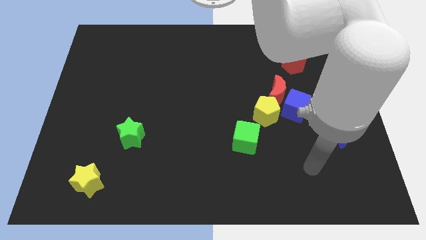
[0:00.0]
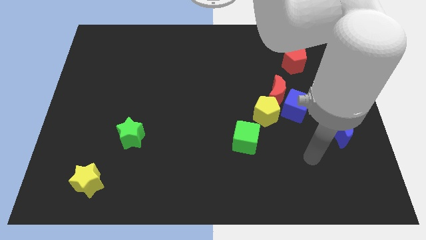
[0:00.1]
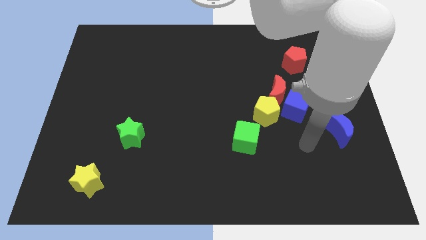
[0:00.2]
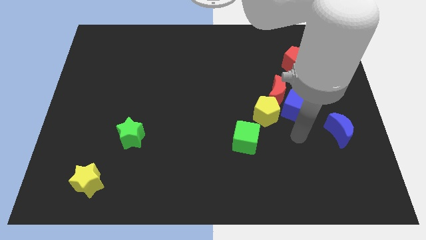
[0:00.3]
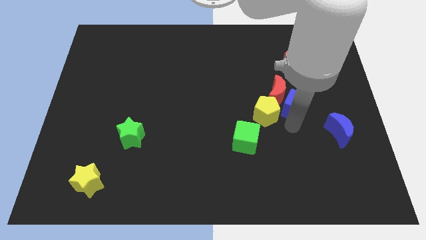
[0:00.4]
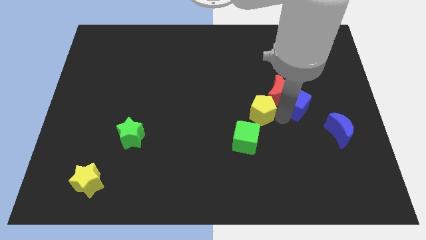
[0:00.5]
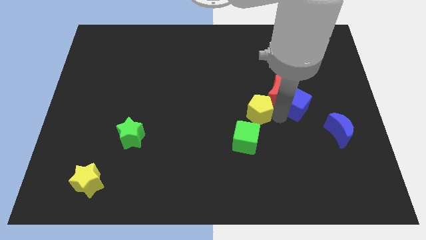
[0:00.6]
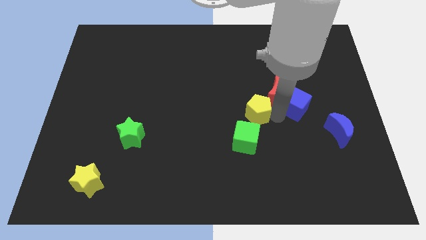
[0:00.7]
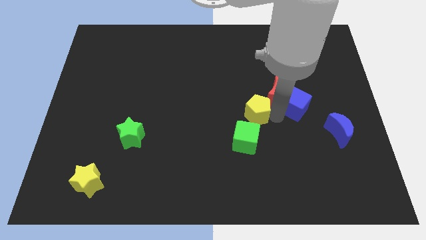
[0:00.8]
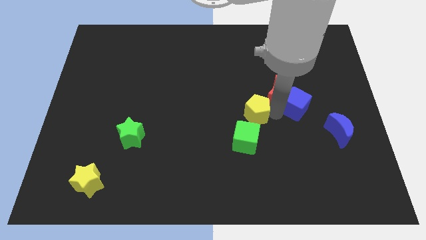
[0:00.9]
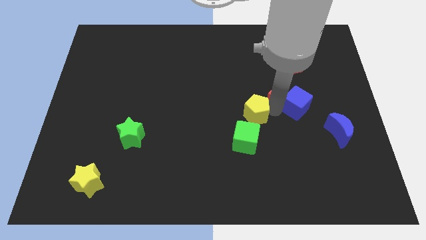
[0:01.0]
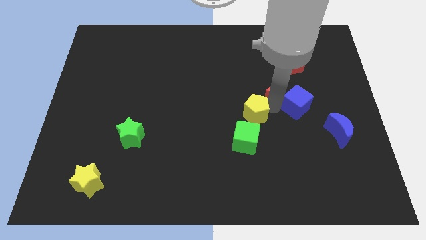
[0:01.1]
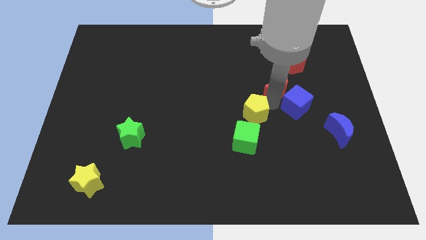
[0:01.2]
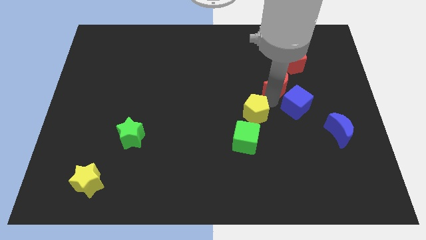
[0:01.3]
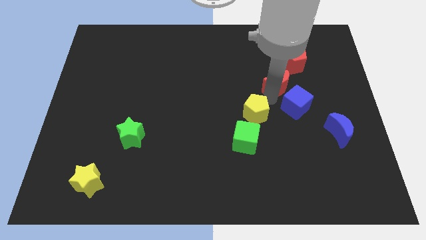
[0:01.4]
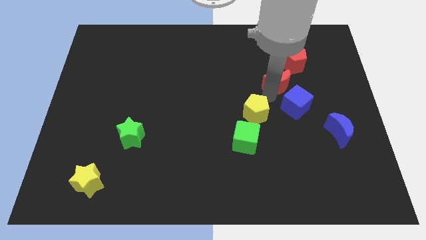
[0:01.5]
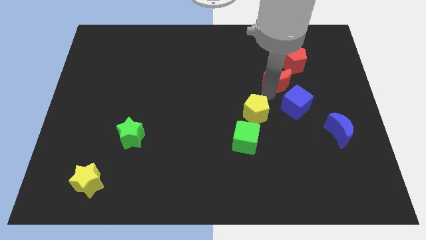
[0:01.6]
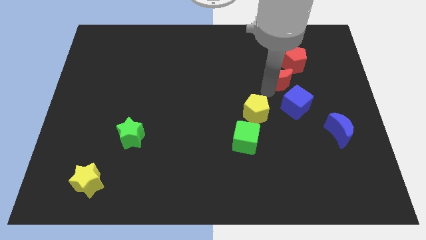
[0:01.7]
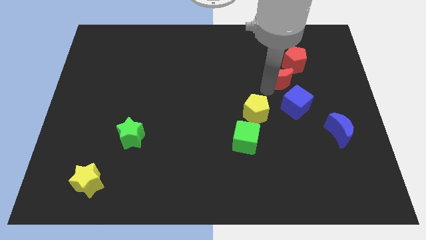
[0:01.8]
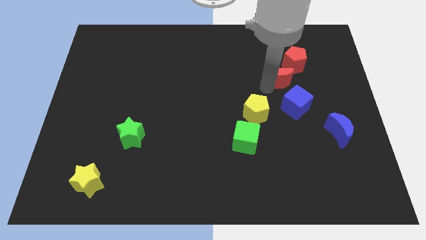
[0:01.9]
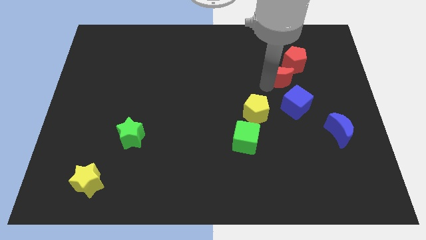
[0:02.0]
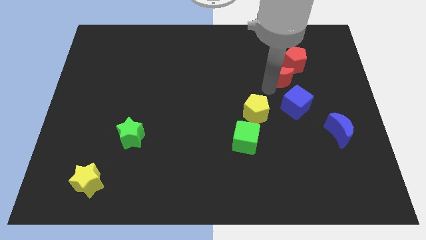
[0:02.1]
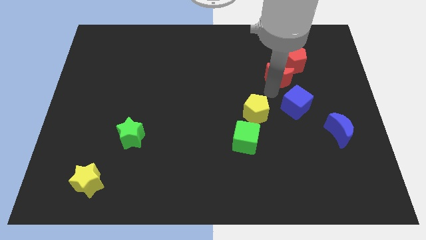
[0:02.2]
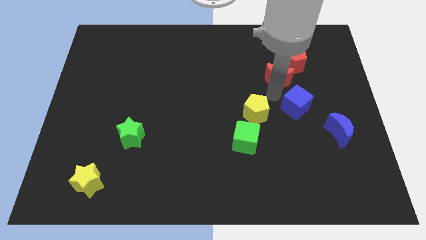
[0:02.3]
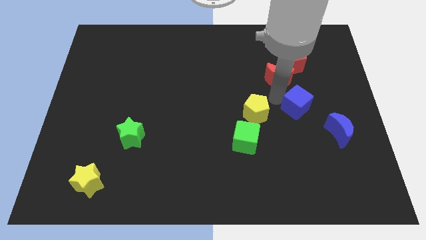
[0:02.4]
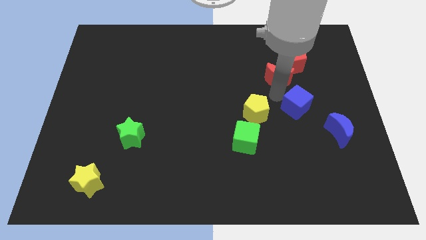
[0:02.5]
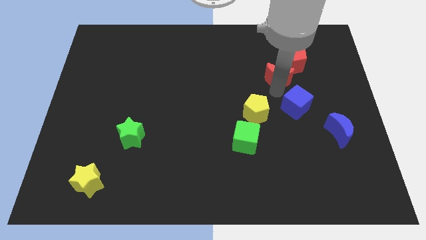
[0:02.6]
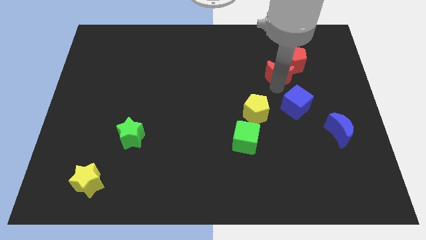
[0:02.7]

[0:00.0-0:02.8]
pull the red moon apart from the blue cube and yellow pentagon

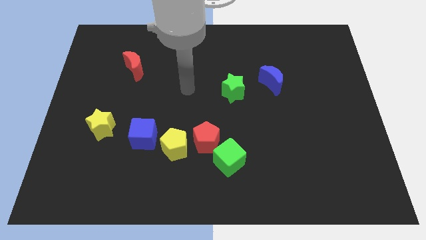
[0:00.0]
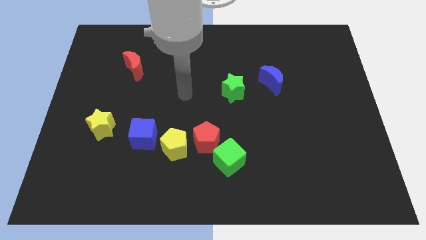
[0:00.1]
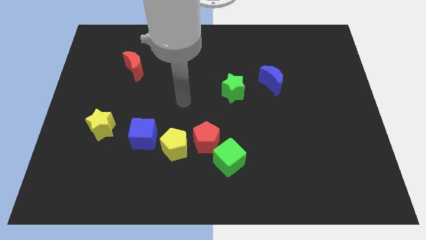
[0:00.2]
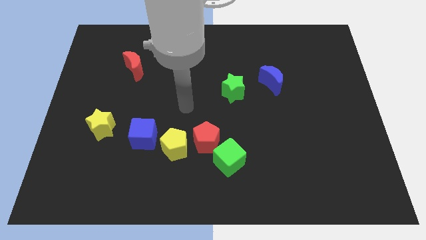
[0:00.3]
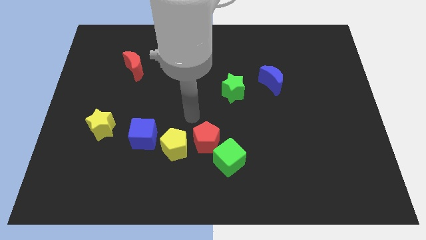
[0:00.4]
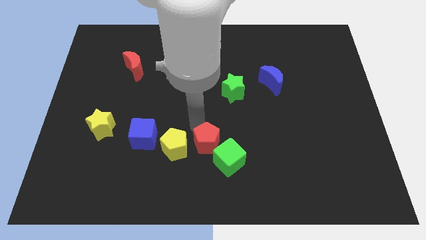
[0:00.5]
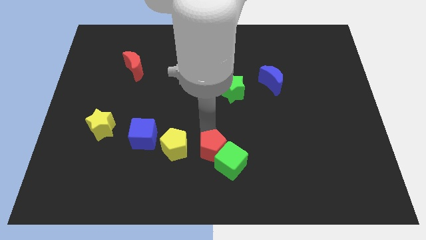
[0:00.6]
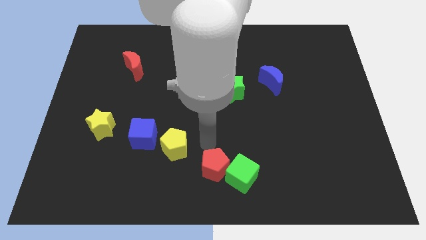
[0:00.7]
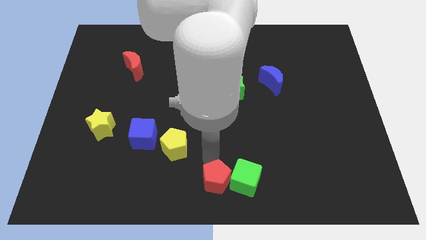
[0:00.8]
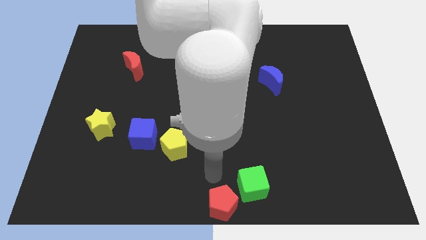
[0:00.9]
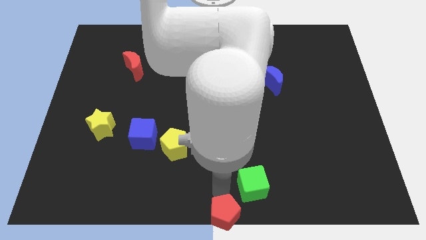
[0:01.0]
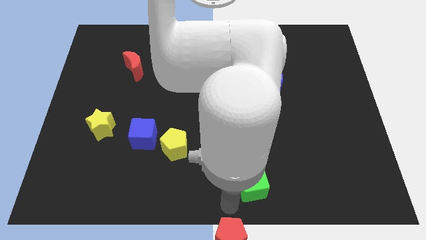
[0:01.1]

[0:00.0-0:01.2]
pull the green cube apart from the red pentagon

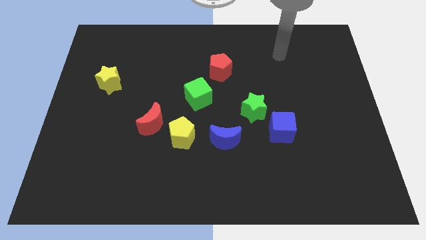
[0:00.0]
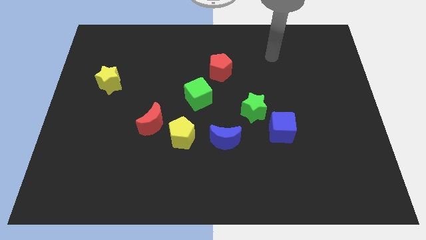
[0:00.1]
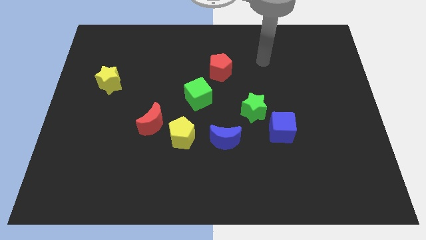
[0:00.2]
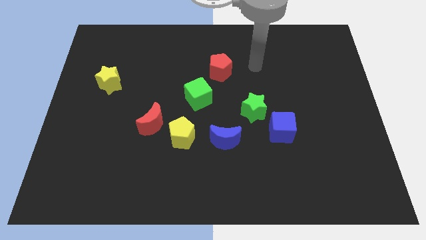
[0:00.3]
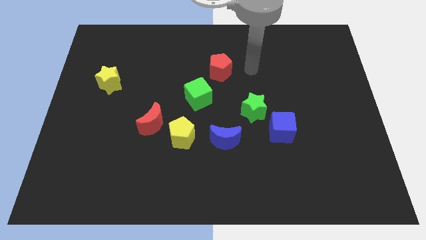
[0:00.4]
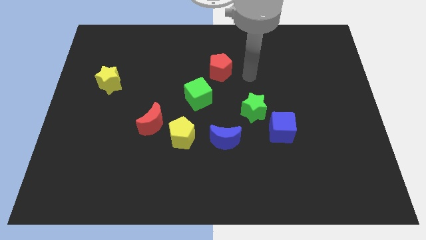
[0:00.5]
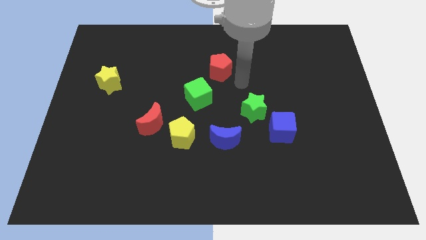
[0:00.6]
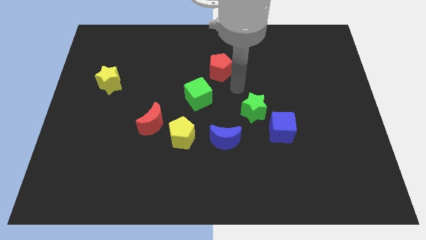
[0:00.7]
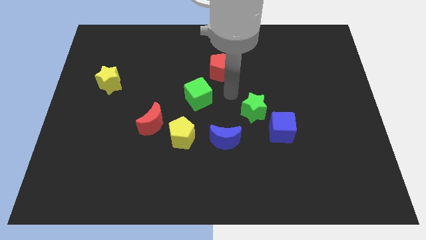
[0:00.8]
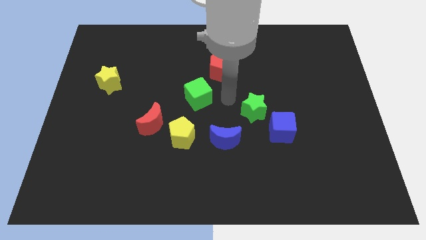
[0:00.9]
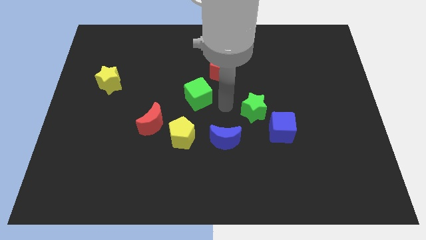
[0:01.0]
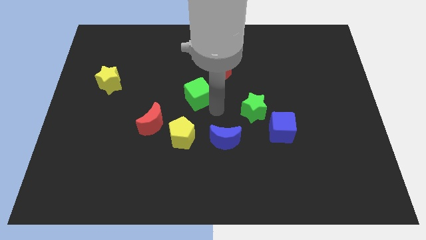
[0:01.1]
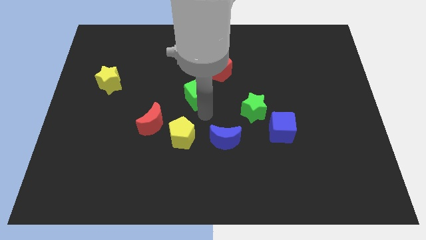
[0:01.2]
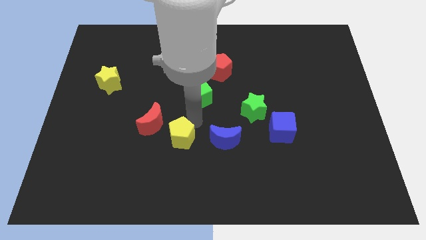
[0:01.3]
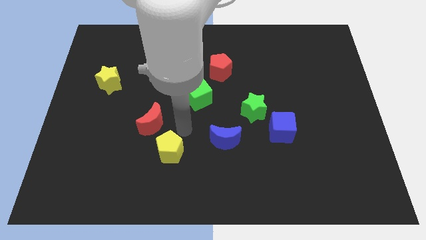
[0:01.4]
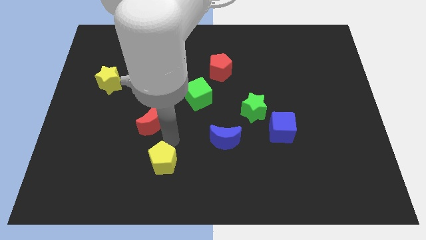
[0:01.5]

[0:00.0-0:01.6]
move the red moon away from the yellow pentagon

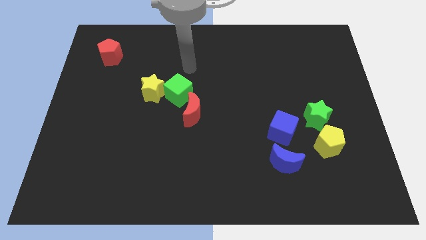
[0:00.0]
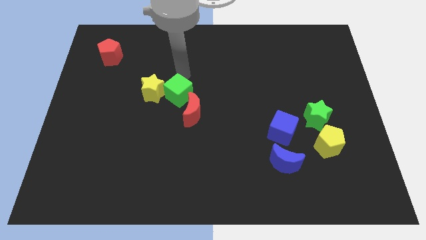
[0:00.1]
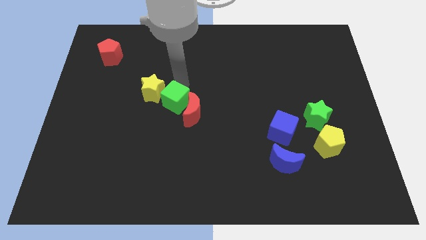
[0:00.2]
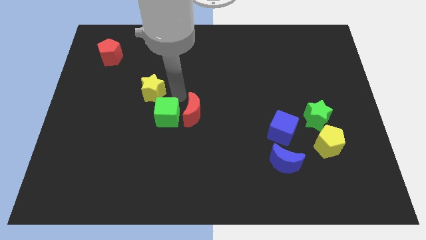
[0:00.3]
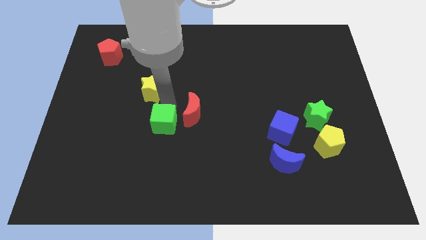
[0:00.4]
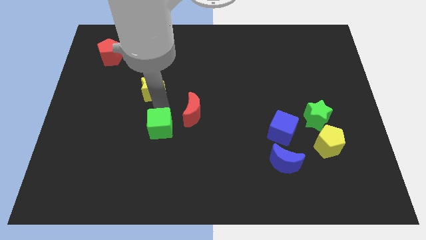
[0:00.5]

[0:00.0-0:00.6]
pull the yellow star apart from the green cube

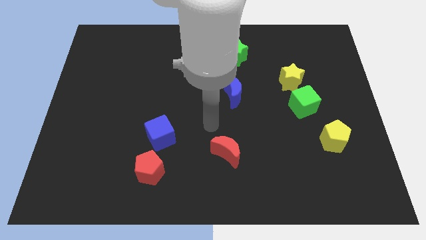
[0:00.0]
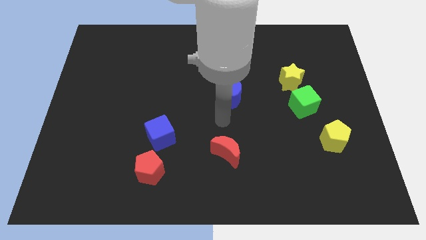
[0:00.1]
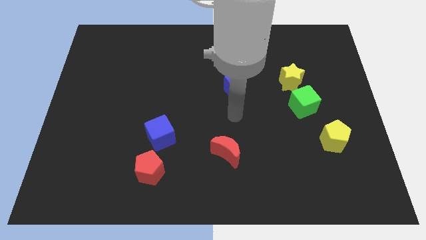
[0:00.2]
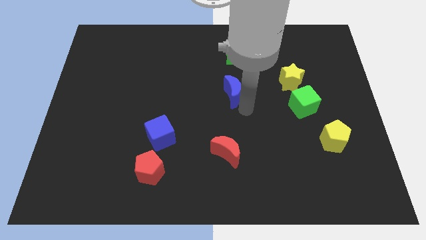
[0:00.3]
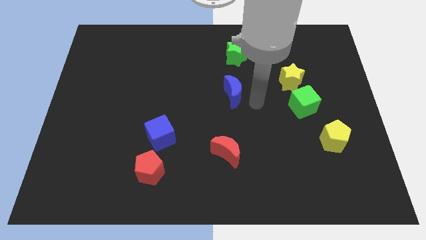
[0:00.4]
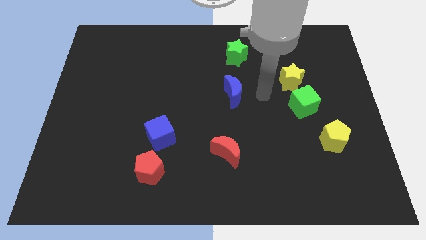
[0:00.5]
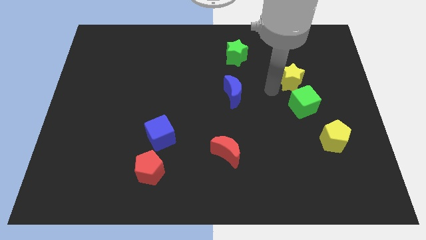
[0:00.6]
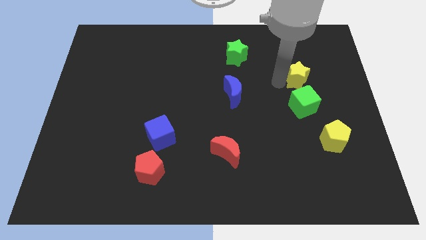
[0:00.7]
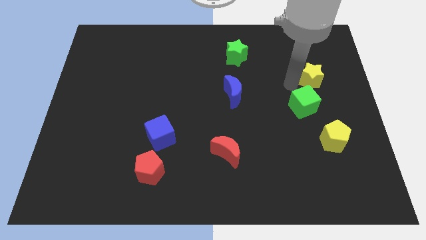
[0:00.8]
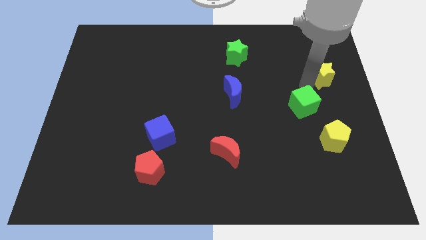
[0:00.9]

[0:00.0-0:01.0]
pull the green cube apart from the yellow star

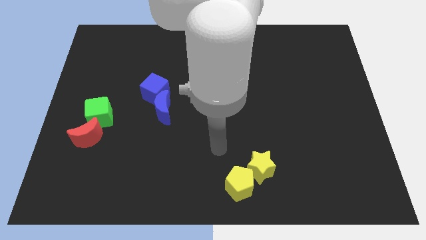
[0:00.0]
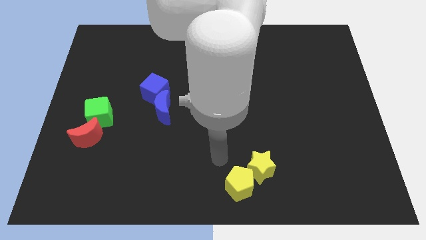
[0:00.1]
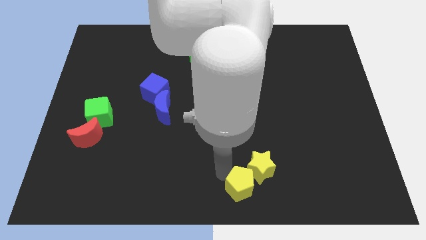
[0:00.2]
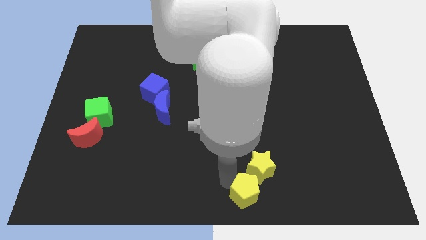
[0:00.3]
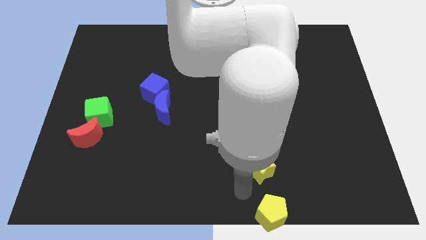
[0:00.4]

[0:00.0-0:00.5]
separate the yellow star from the yellow pentagon

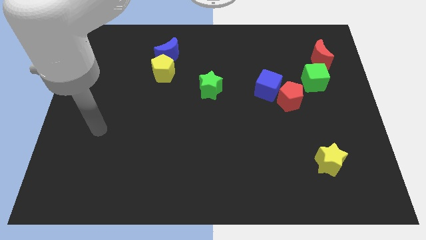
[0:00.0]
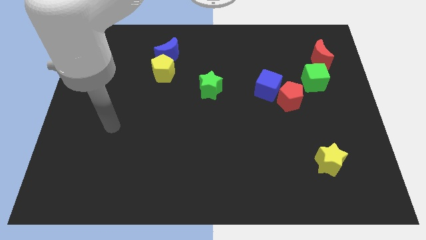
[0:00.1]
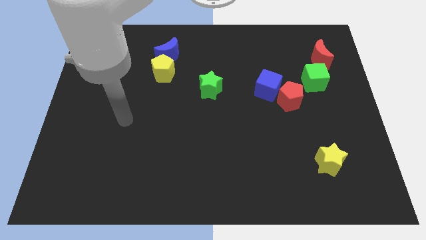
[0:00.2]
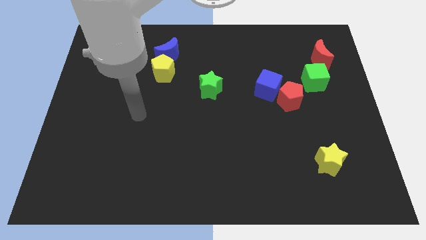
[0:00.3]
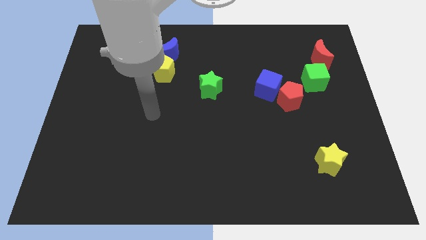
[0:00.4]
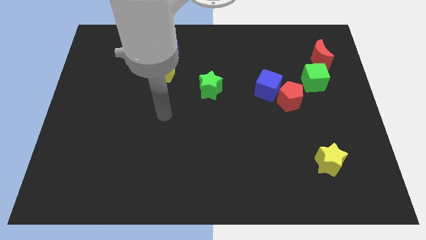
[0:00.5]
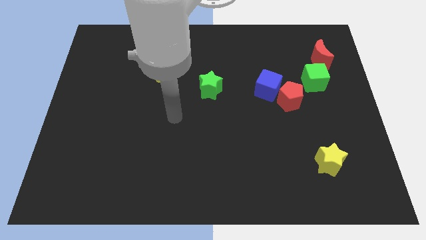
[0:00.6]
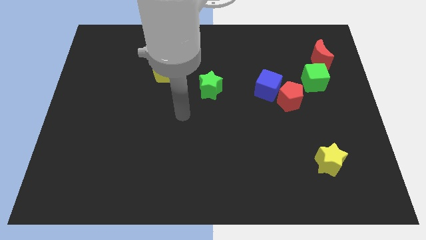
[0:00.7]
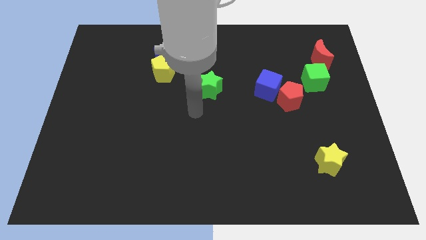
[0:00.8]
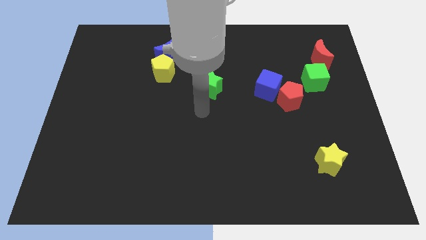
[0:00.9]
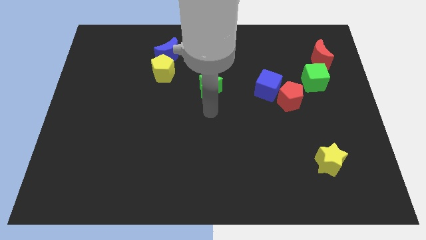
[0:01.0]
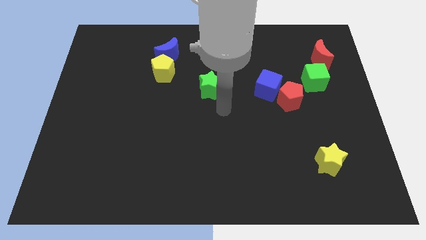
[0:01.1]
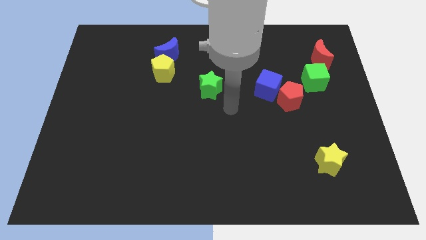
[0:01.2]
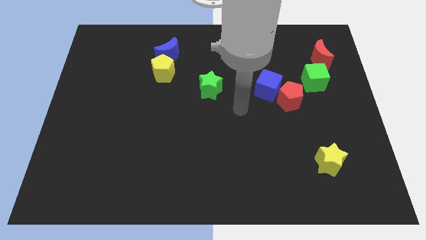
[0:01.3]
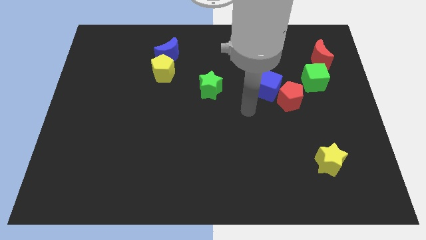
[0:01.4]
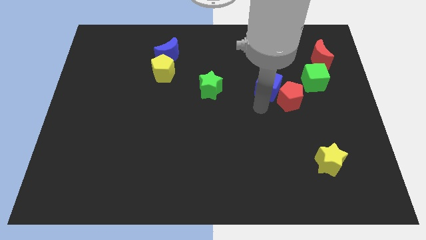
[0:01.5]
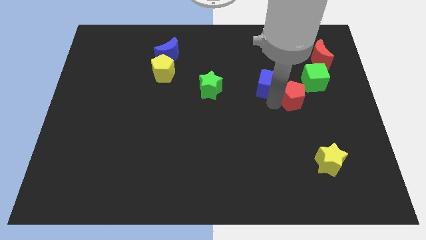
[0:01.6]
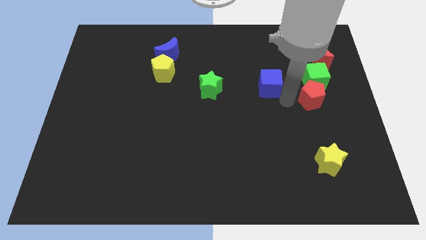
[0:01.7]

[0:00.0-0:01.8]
pull the blue cube apart from the red pentagon
